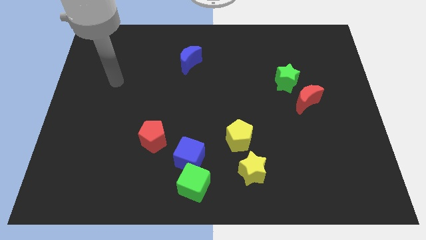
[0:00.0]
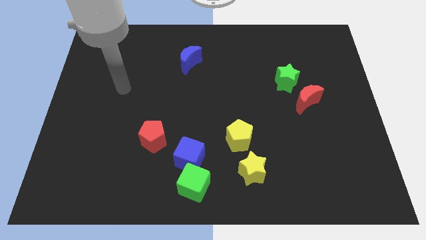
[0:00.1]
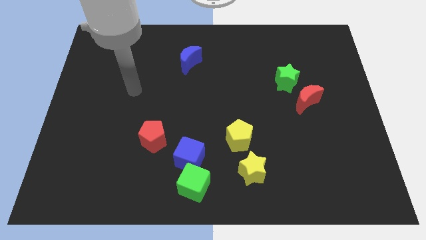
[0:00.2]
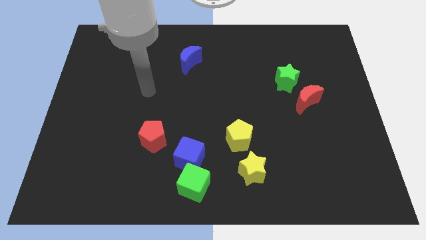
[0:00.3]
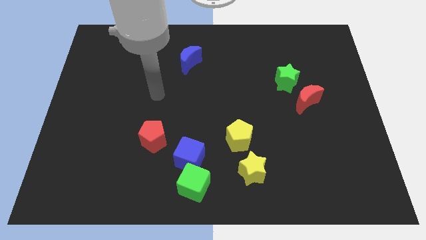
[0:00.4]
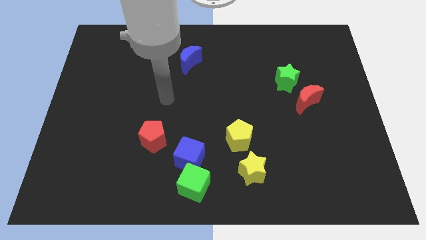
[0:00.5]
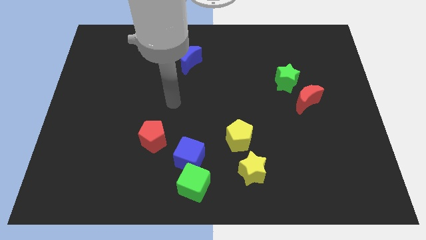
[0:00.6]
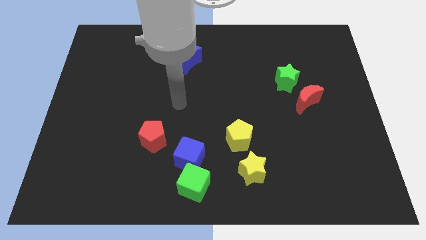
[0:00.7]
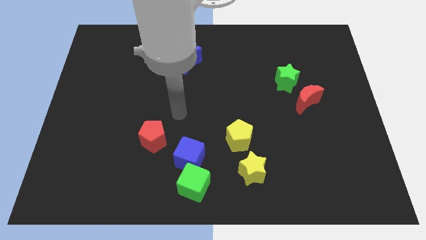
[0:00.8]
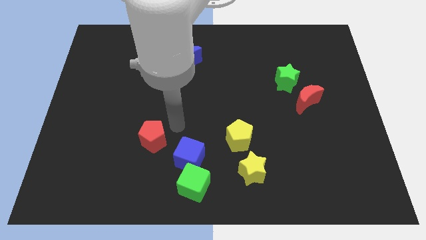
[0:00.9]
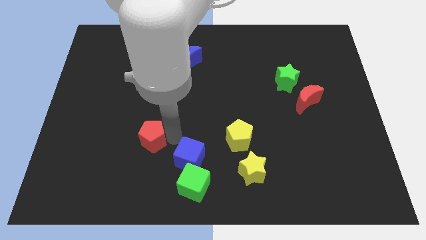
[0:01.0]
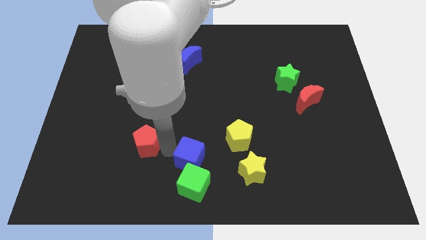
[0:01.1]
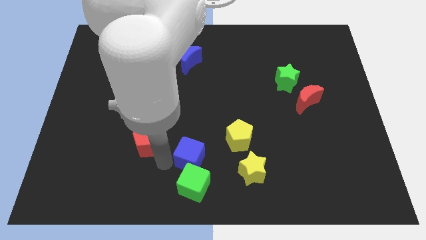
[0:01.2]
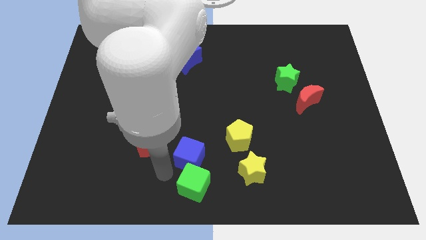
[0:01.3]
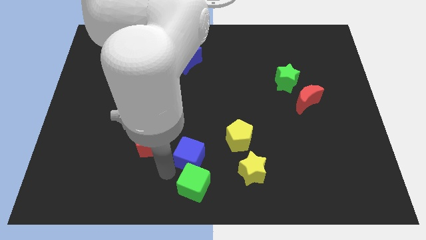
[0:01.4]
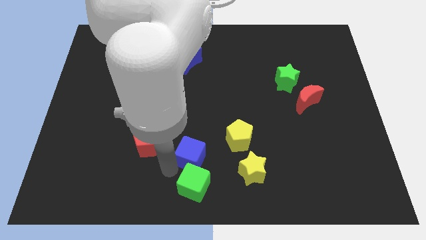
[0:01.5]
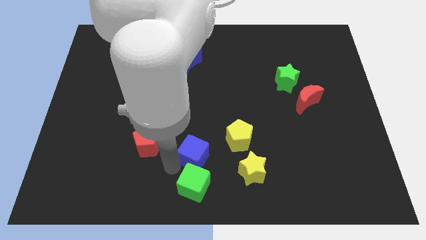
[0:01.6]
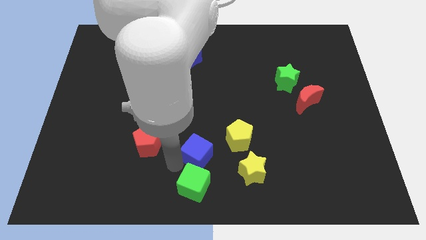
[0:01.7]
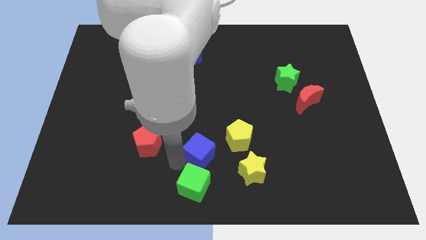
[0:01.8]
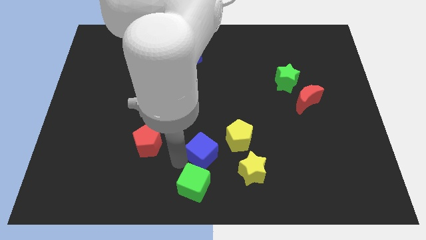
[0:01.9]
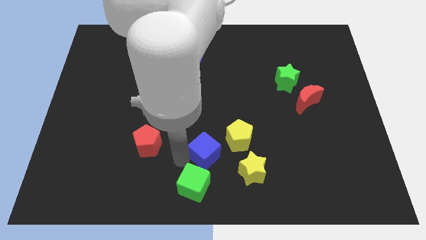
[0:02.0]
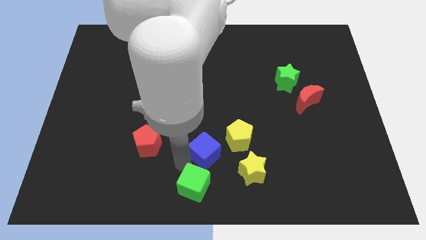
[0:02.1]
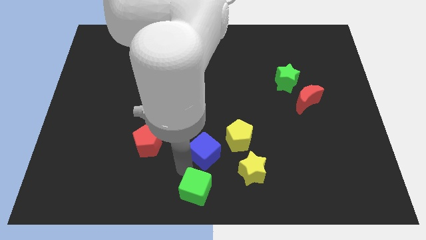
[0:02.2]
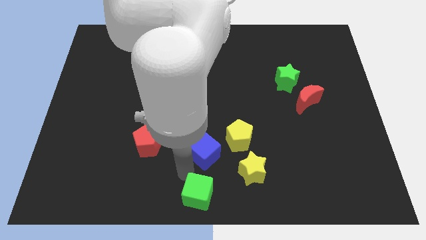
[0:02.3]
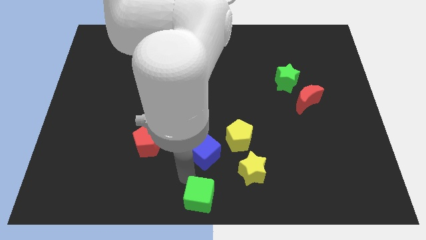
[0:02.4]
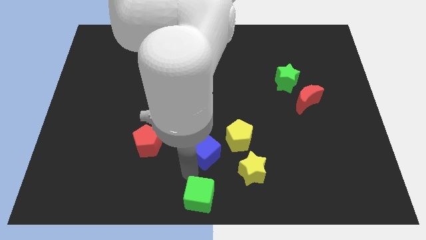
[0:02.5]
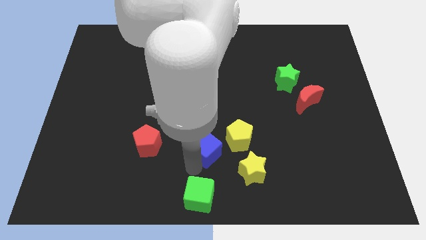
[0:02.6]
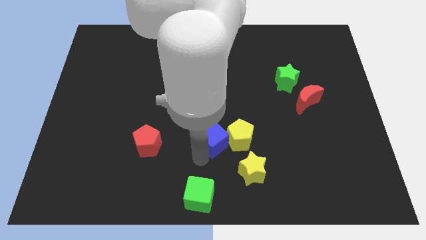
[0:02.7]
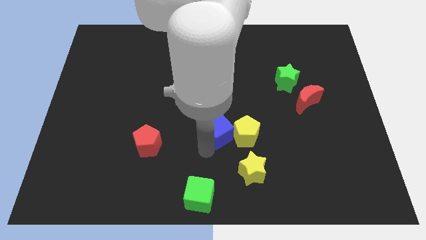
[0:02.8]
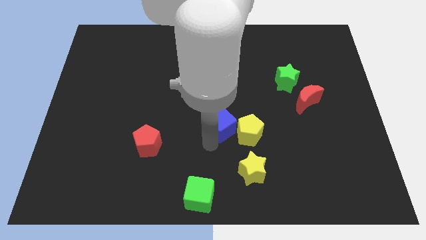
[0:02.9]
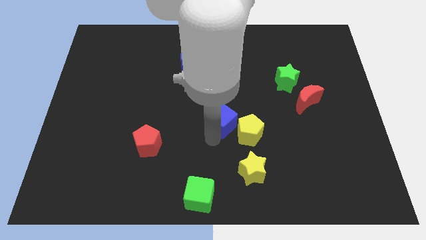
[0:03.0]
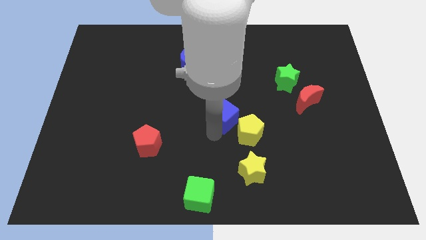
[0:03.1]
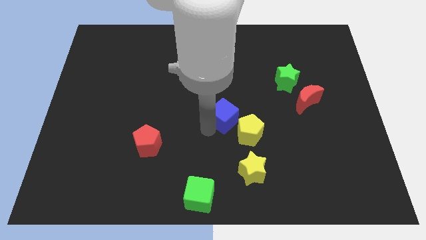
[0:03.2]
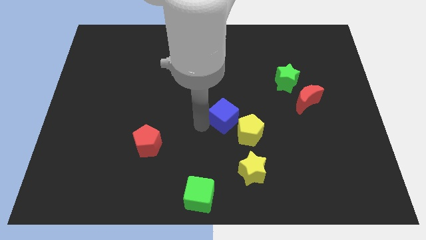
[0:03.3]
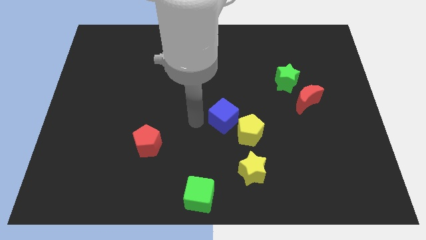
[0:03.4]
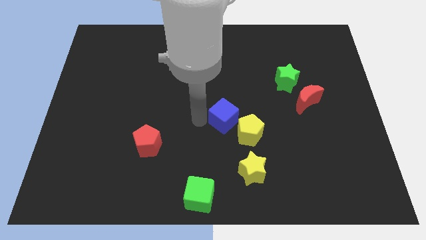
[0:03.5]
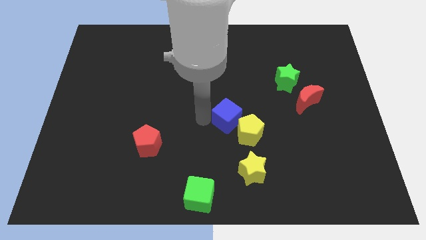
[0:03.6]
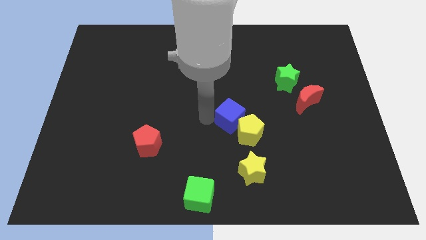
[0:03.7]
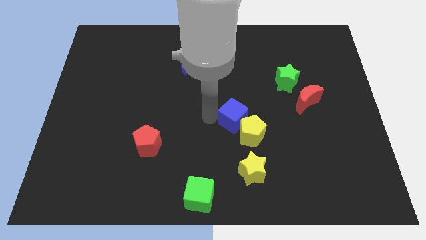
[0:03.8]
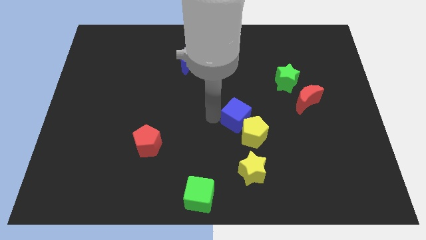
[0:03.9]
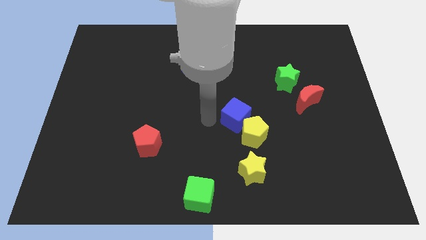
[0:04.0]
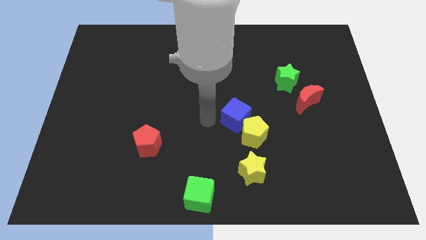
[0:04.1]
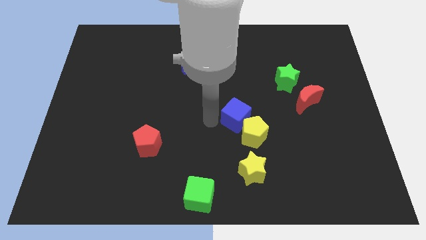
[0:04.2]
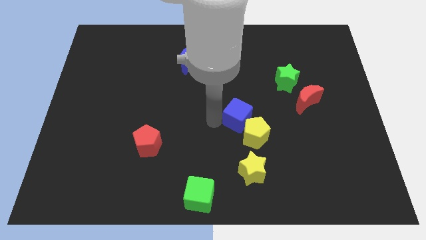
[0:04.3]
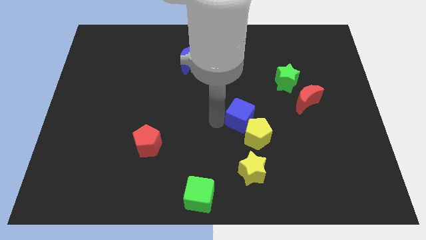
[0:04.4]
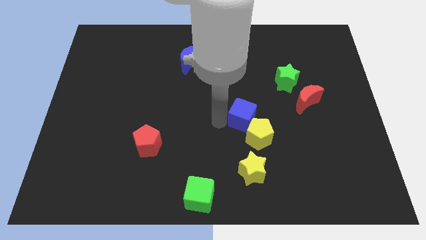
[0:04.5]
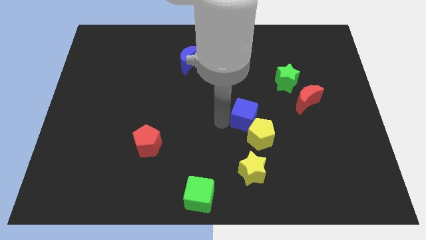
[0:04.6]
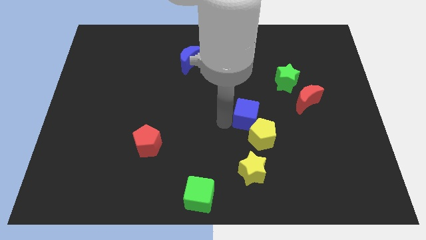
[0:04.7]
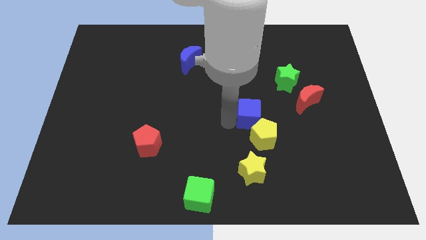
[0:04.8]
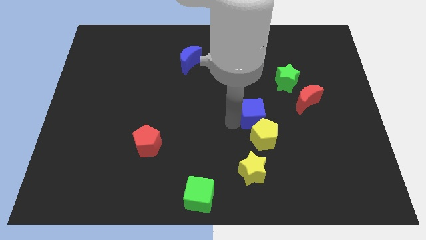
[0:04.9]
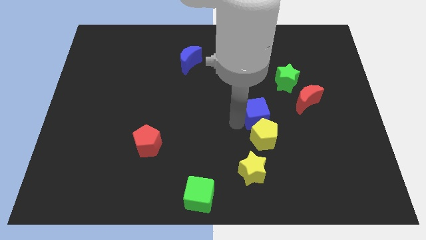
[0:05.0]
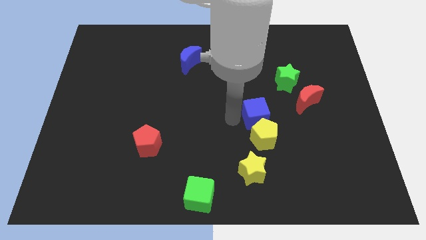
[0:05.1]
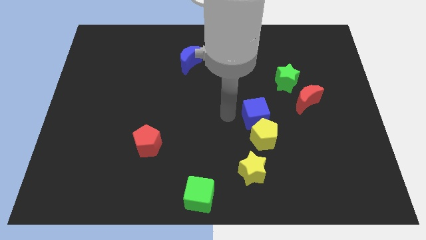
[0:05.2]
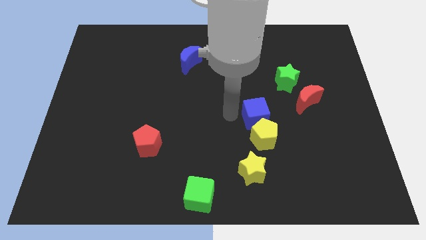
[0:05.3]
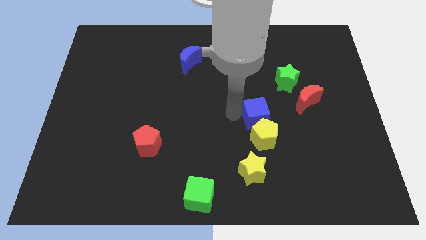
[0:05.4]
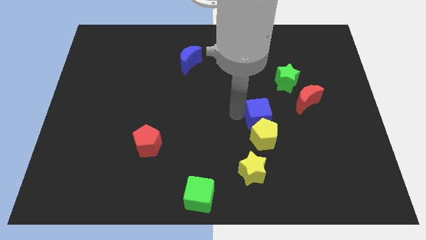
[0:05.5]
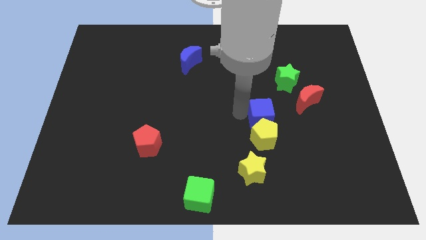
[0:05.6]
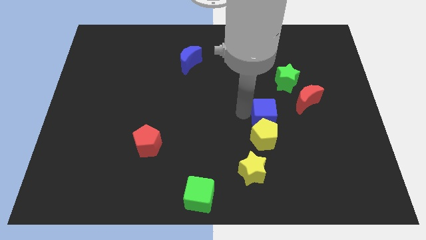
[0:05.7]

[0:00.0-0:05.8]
push the blue cube to the bottom left side of the red moon

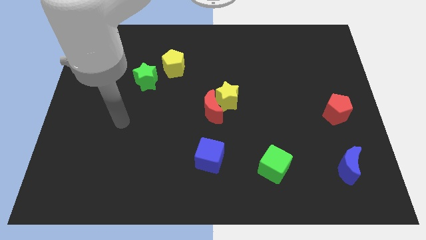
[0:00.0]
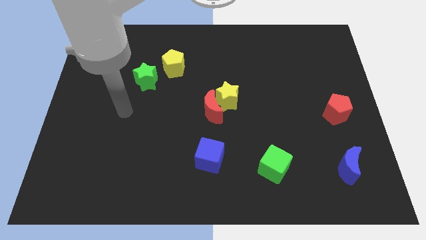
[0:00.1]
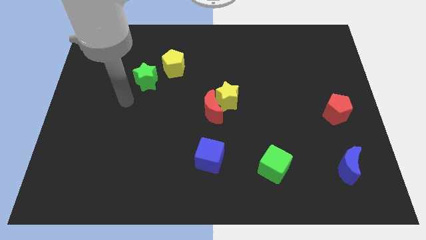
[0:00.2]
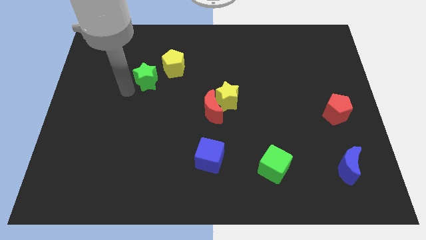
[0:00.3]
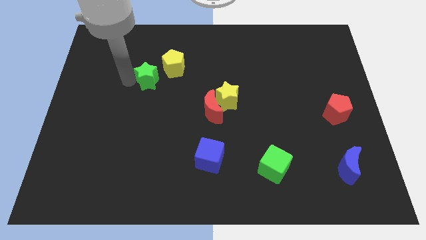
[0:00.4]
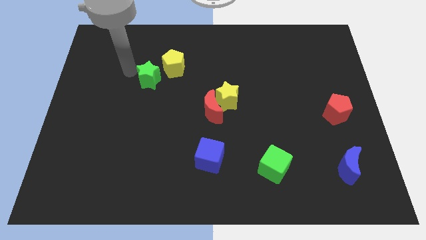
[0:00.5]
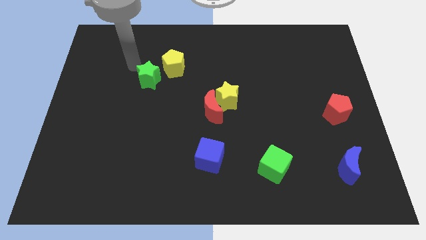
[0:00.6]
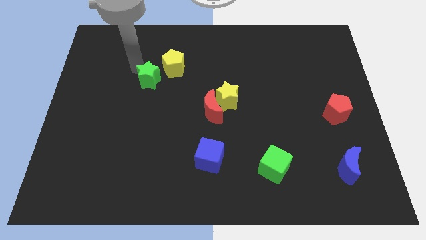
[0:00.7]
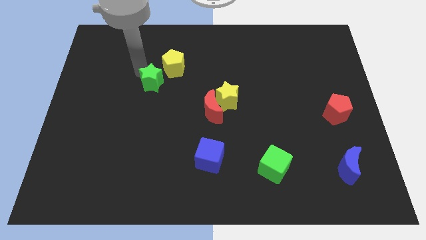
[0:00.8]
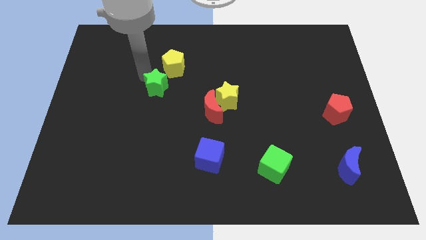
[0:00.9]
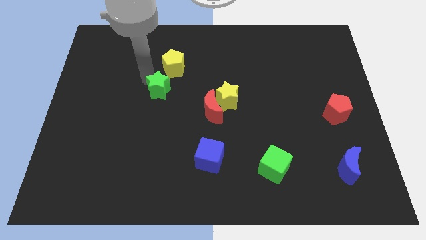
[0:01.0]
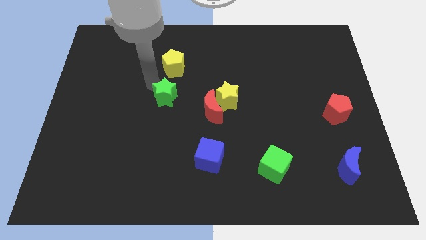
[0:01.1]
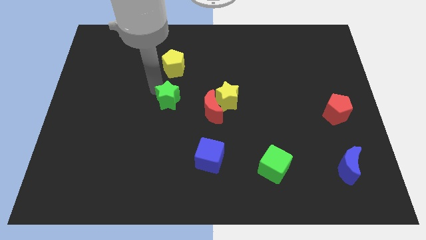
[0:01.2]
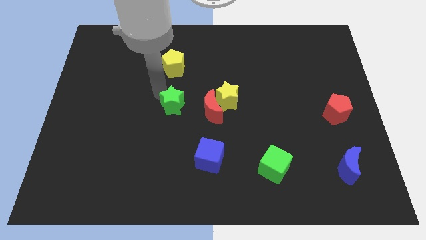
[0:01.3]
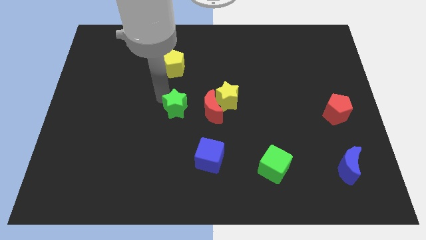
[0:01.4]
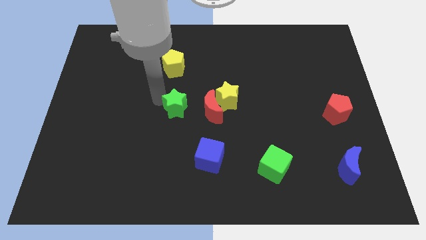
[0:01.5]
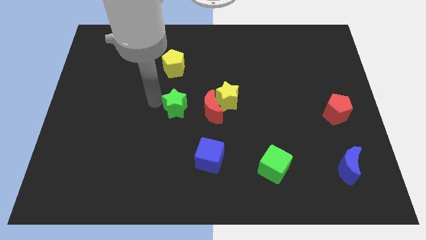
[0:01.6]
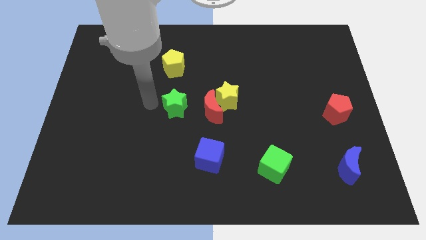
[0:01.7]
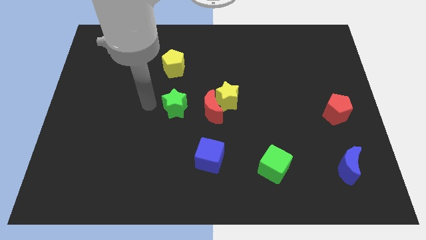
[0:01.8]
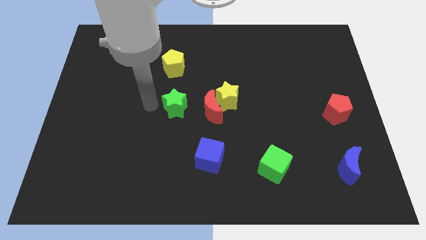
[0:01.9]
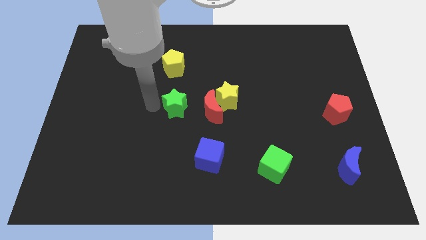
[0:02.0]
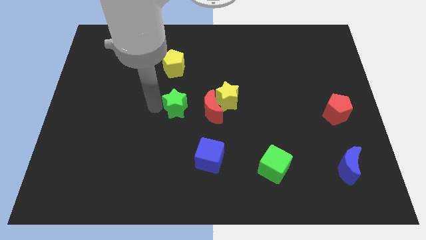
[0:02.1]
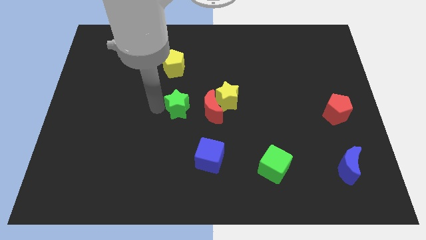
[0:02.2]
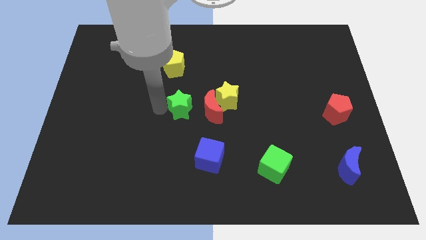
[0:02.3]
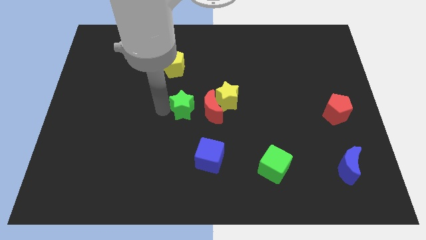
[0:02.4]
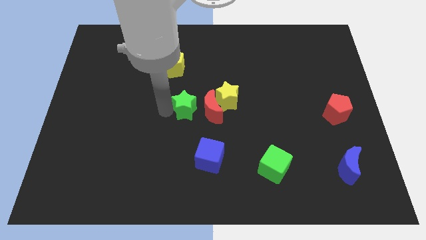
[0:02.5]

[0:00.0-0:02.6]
move the green star diagonally down and to the left of the yellow star
